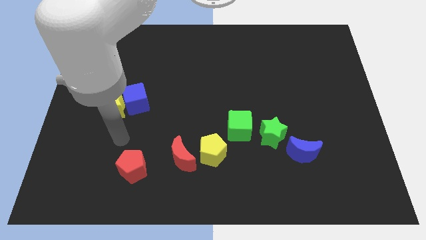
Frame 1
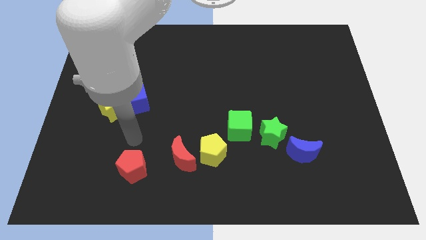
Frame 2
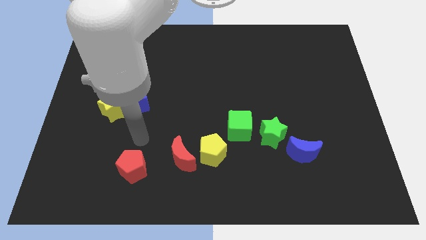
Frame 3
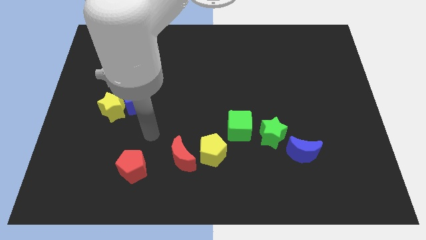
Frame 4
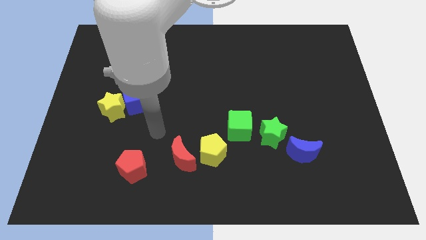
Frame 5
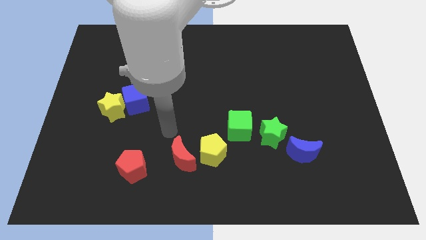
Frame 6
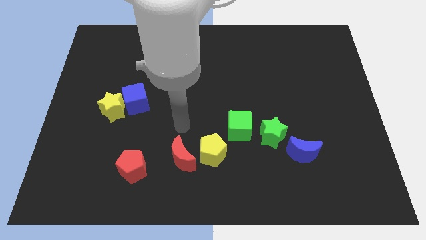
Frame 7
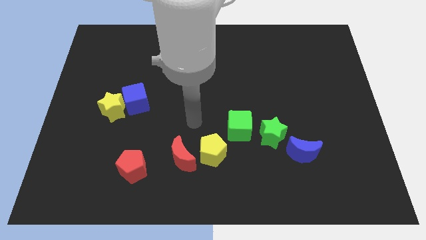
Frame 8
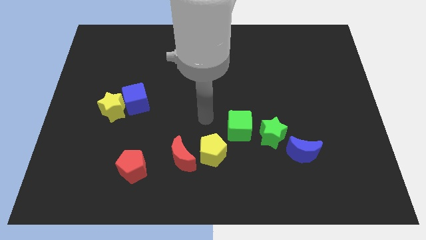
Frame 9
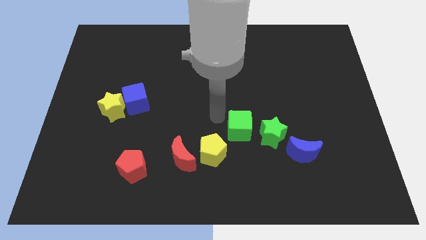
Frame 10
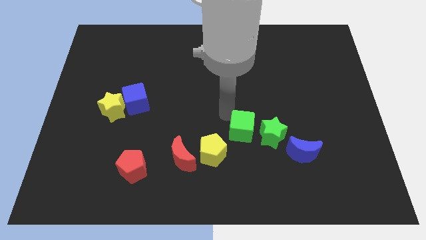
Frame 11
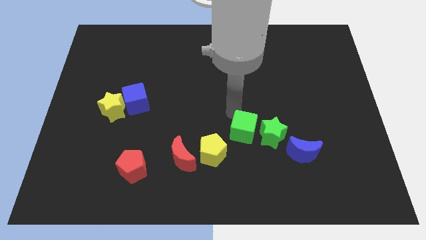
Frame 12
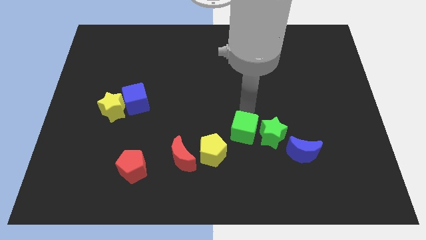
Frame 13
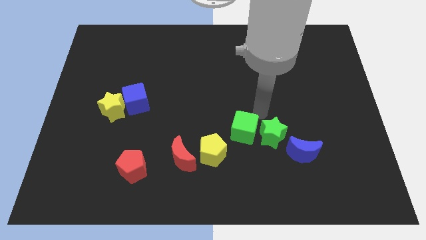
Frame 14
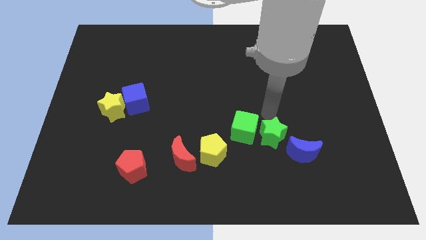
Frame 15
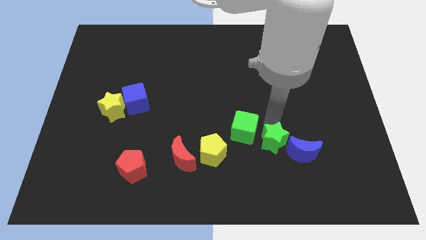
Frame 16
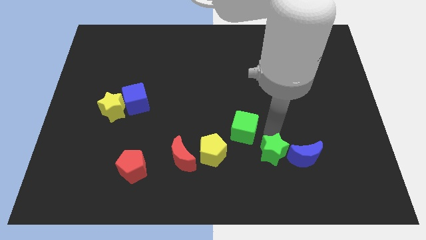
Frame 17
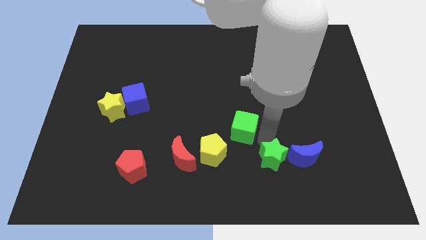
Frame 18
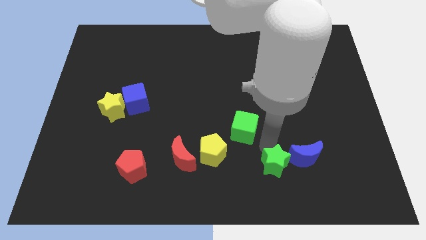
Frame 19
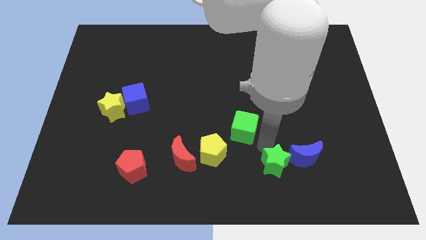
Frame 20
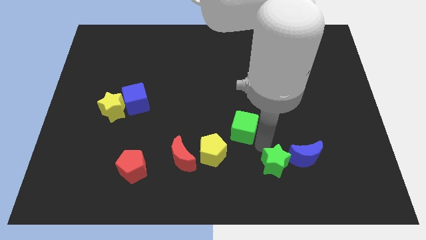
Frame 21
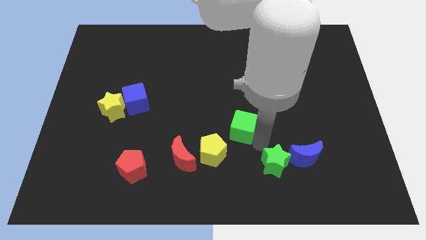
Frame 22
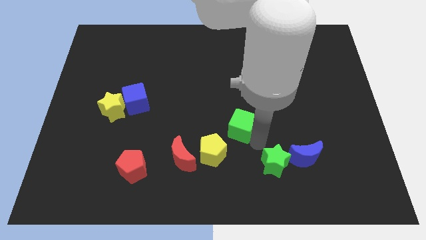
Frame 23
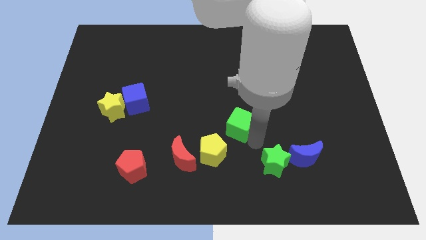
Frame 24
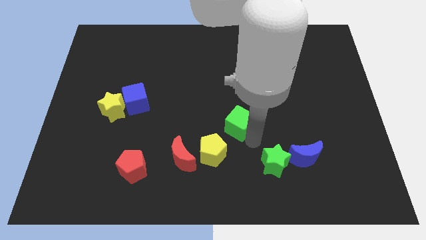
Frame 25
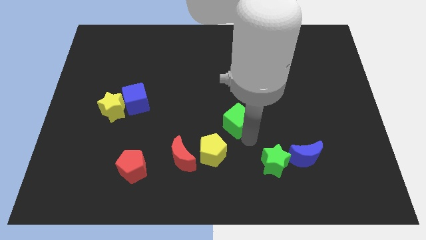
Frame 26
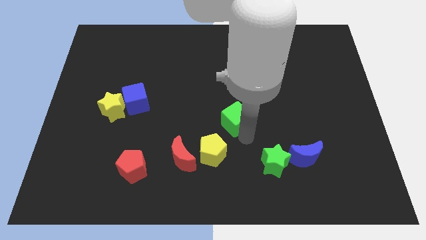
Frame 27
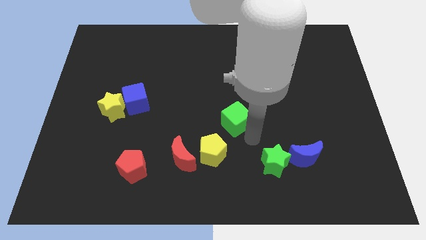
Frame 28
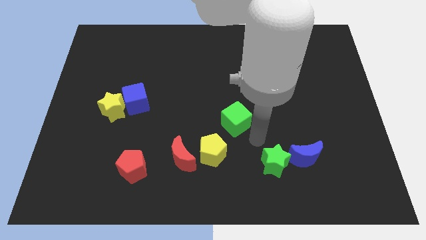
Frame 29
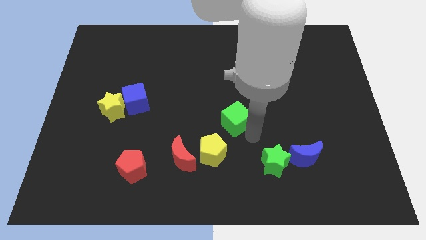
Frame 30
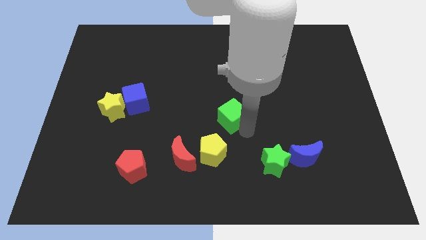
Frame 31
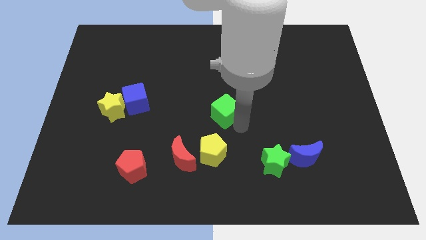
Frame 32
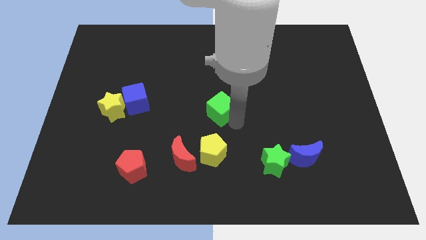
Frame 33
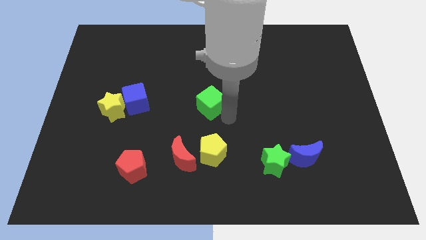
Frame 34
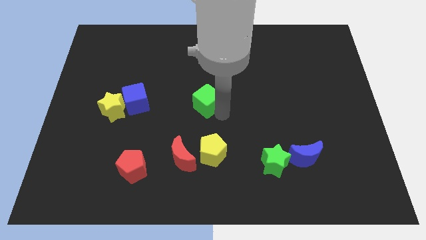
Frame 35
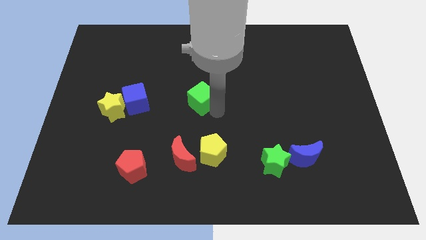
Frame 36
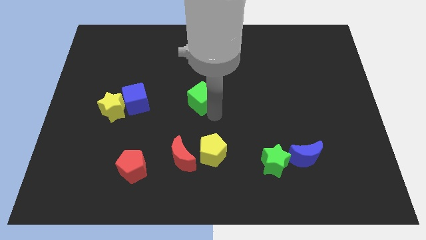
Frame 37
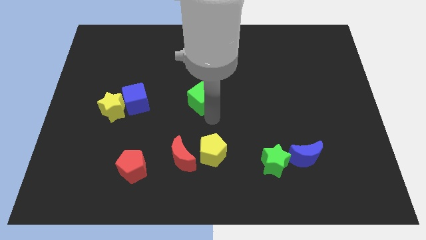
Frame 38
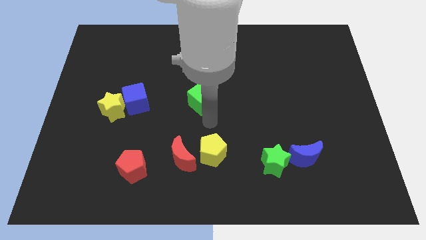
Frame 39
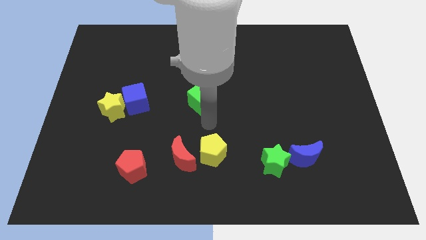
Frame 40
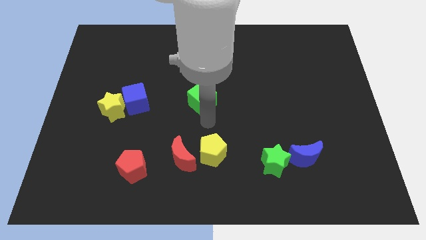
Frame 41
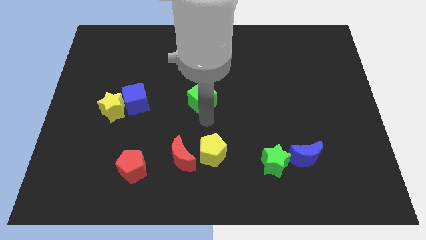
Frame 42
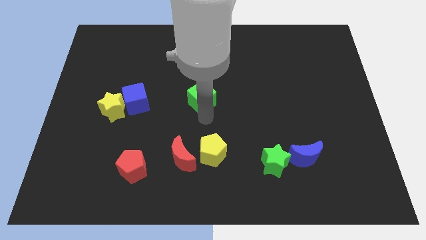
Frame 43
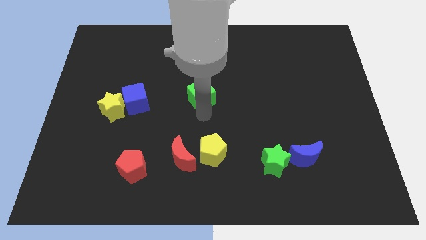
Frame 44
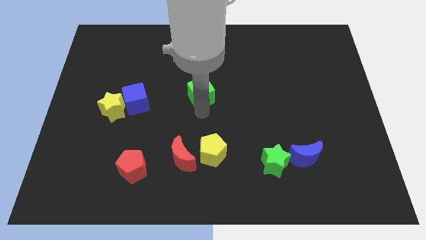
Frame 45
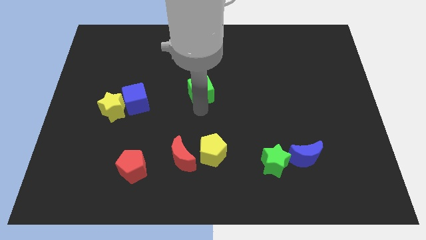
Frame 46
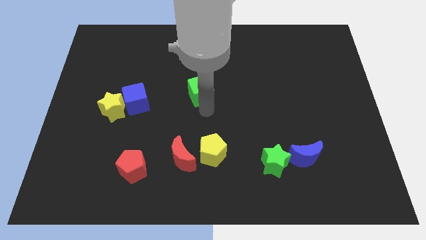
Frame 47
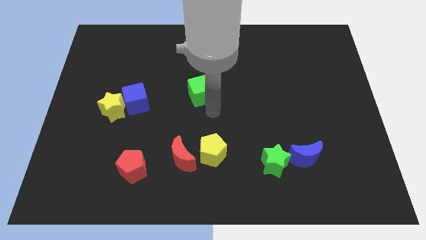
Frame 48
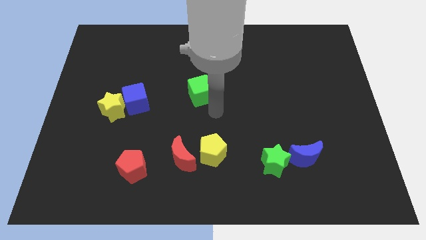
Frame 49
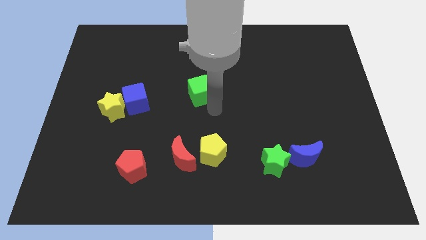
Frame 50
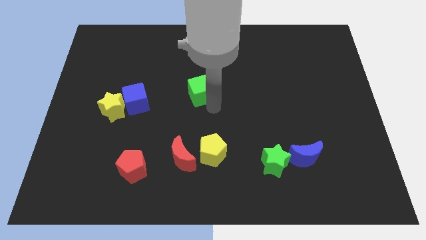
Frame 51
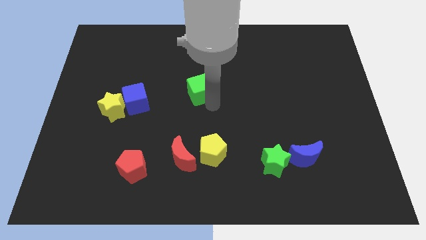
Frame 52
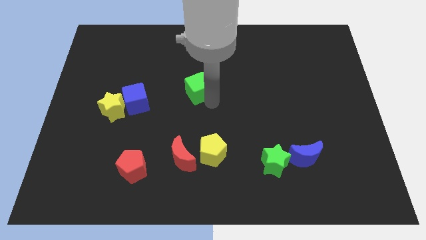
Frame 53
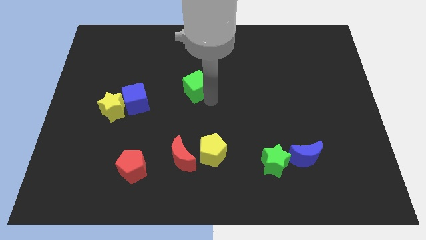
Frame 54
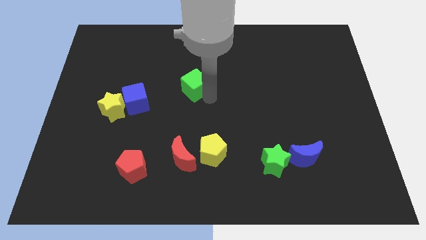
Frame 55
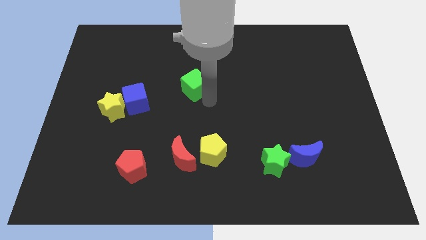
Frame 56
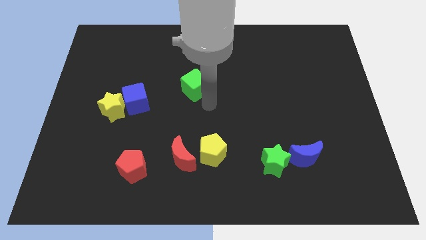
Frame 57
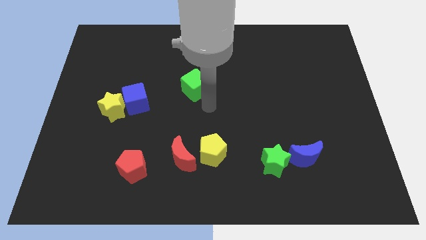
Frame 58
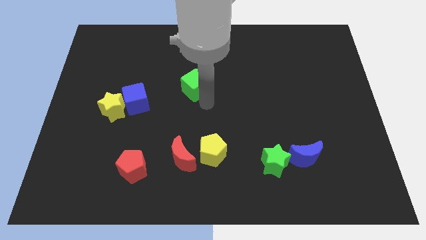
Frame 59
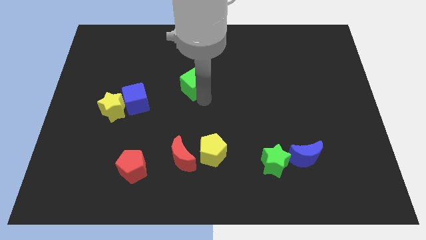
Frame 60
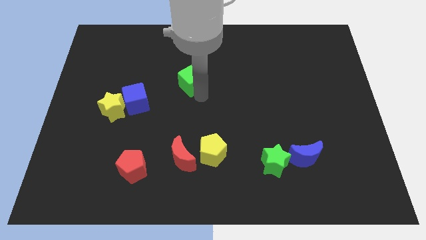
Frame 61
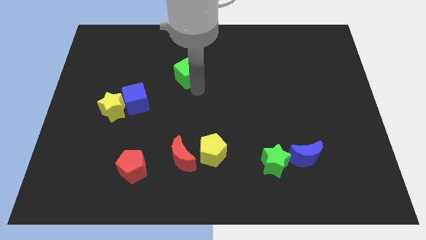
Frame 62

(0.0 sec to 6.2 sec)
push the green cube diagonally up and to the left

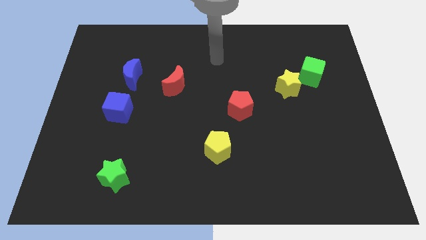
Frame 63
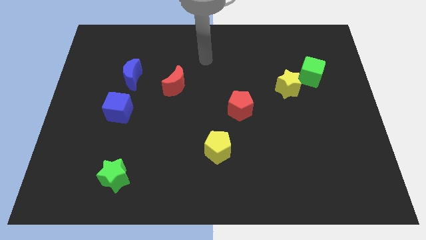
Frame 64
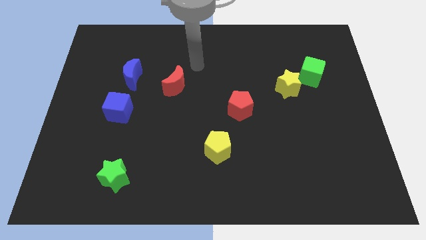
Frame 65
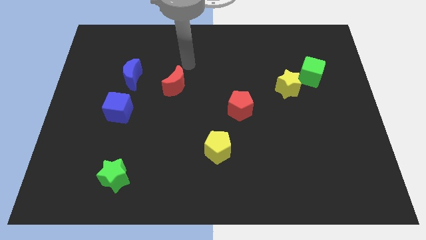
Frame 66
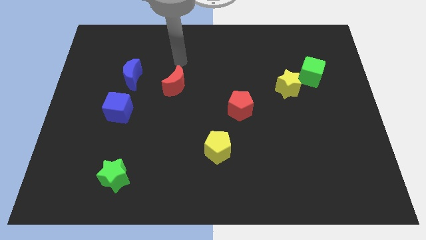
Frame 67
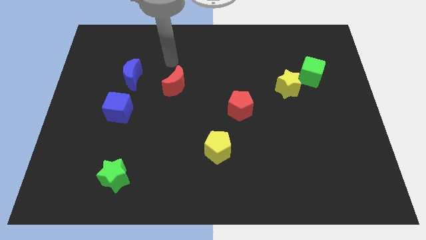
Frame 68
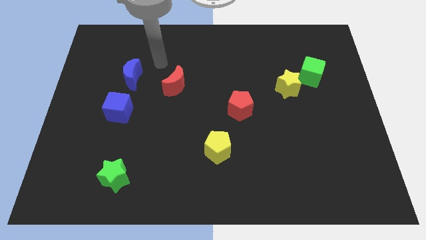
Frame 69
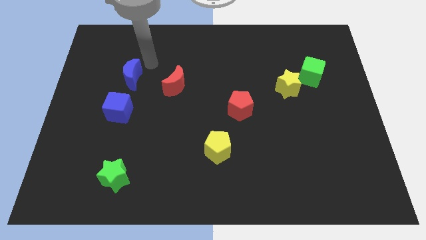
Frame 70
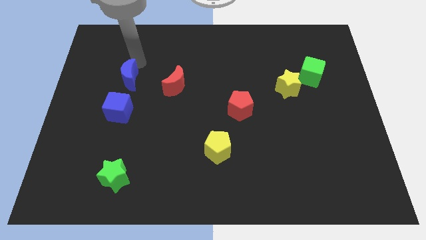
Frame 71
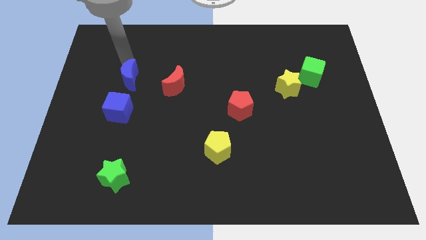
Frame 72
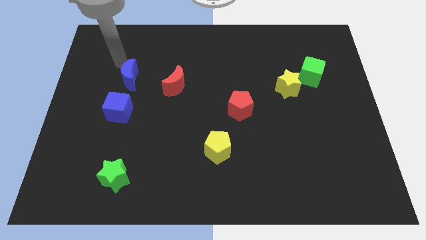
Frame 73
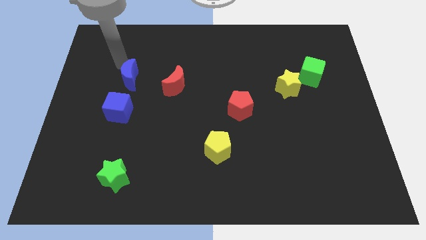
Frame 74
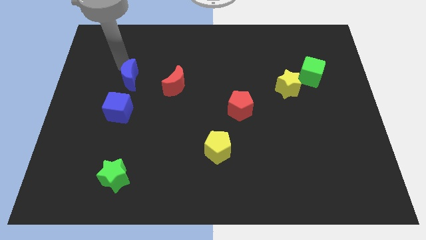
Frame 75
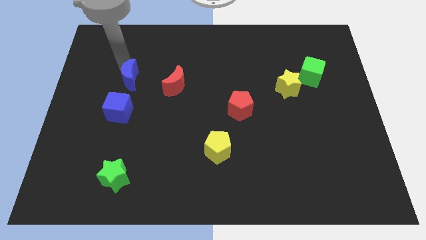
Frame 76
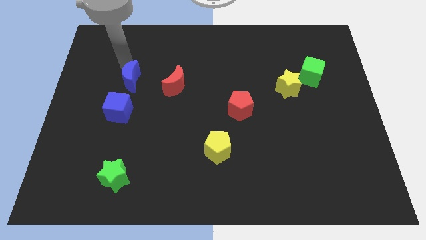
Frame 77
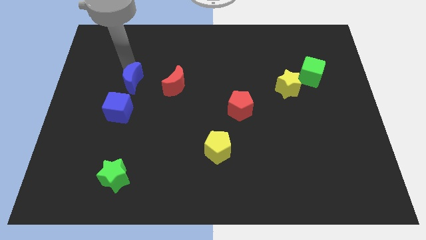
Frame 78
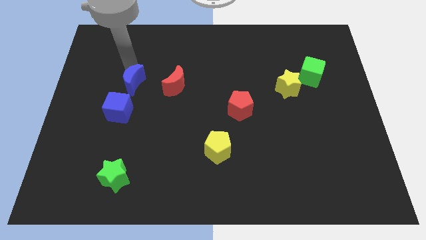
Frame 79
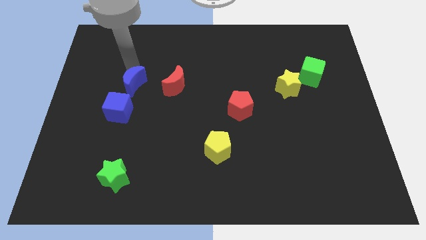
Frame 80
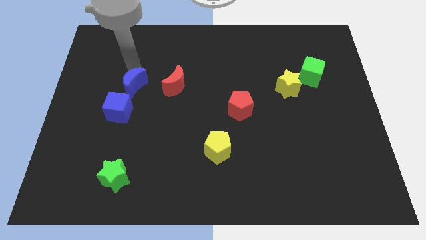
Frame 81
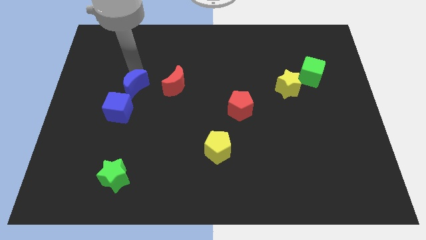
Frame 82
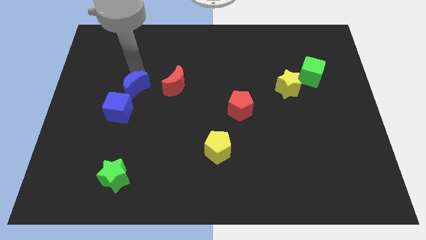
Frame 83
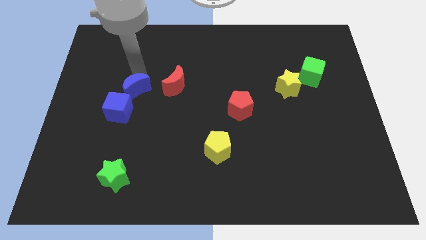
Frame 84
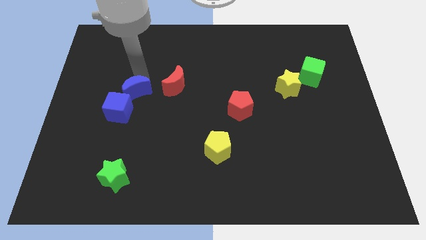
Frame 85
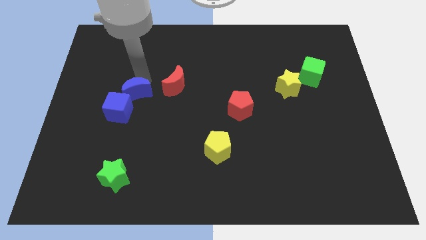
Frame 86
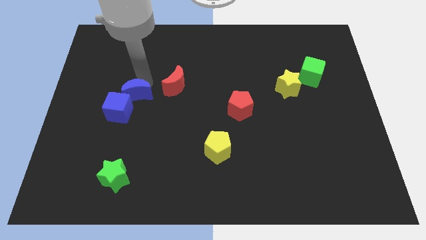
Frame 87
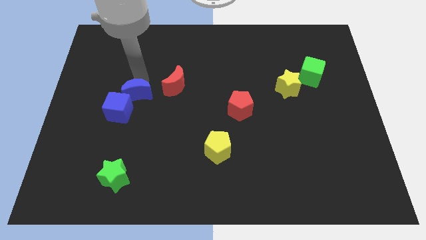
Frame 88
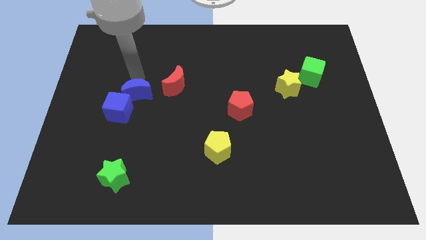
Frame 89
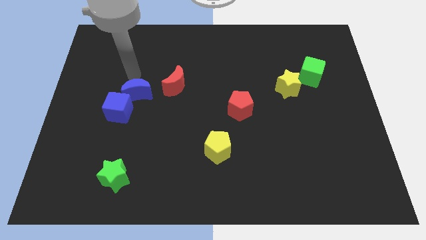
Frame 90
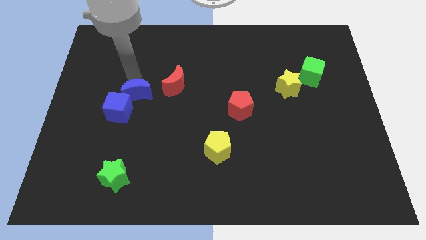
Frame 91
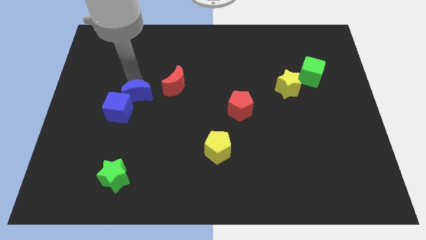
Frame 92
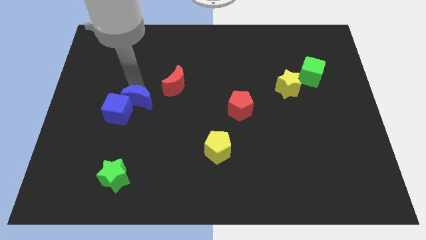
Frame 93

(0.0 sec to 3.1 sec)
slightly slide the blue moon downwards
